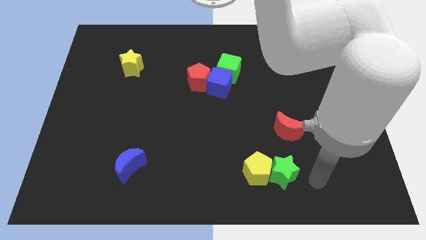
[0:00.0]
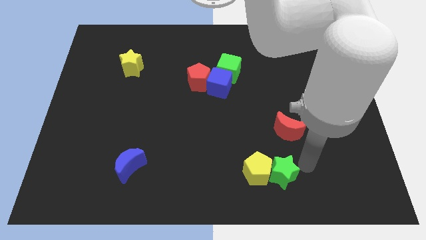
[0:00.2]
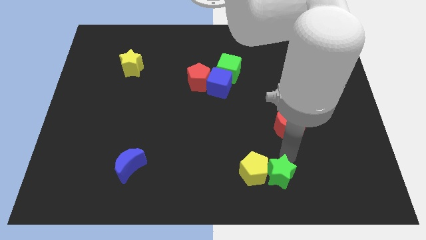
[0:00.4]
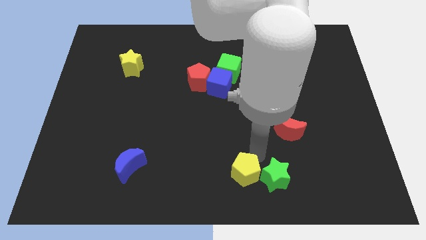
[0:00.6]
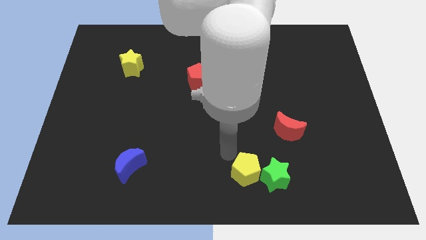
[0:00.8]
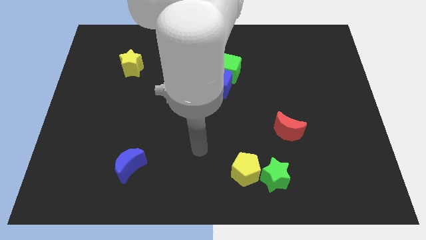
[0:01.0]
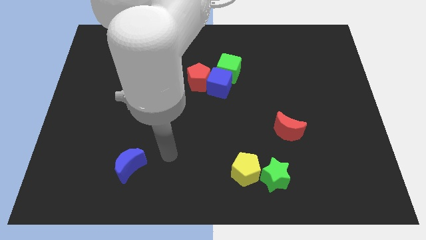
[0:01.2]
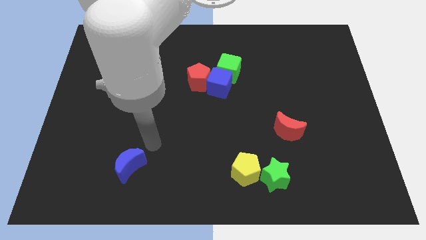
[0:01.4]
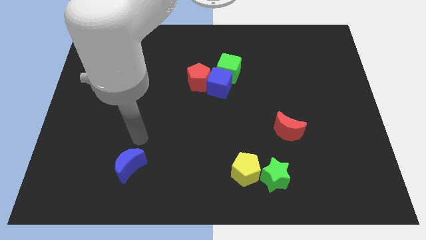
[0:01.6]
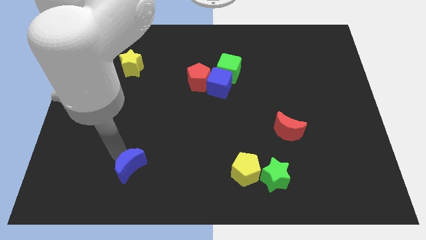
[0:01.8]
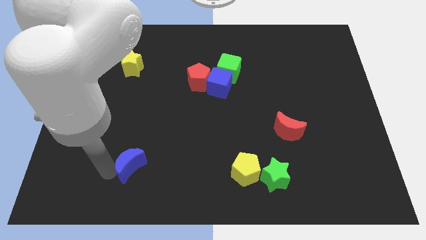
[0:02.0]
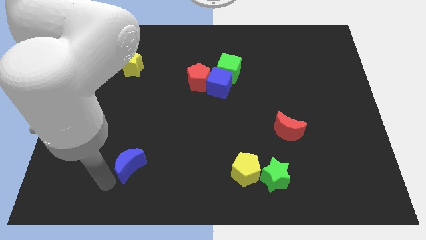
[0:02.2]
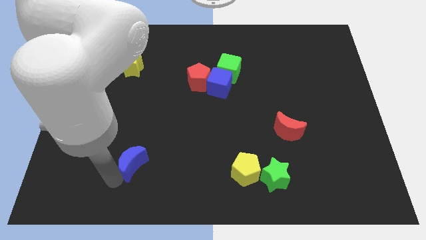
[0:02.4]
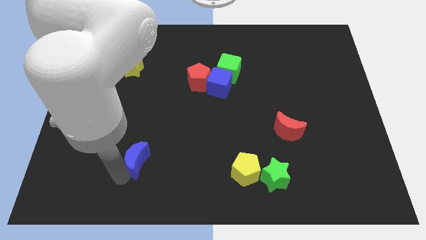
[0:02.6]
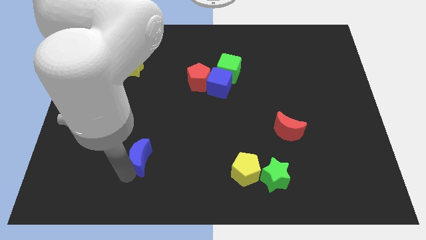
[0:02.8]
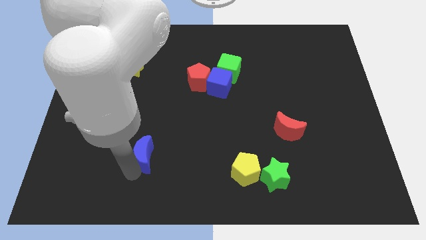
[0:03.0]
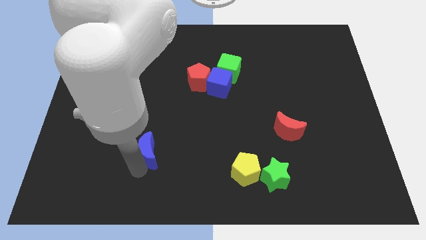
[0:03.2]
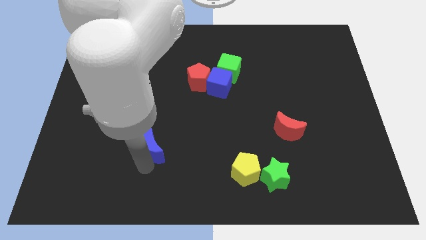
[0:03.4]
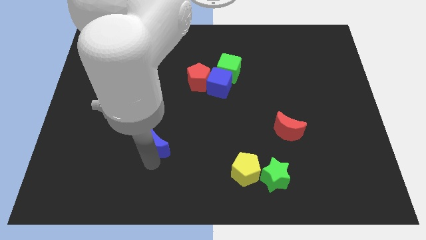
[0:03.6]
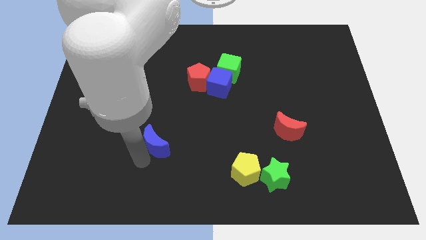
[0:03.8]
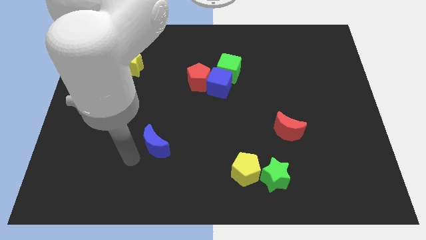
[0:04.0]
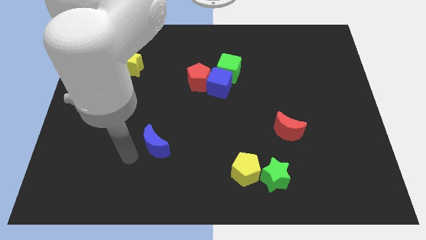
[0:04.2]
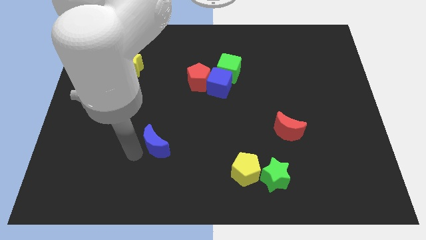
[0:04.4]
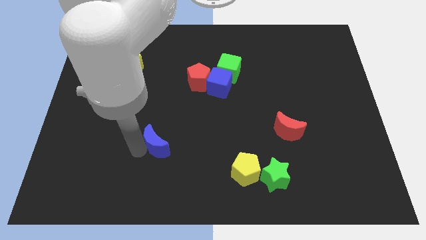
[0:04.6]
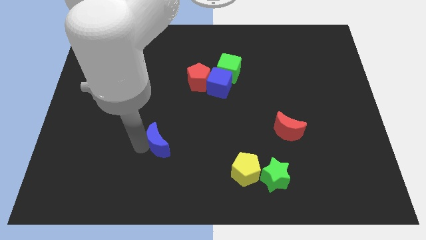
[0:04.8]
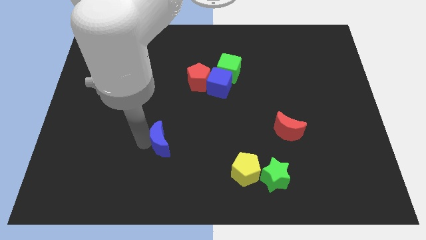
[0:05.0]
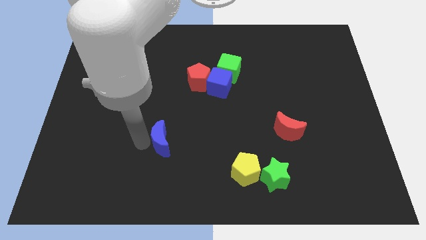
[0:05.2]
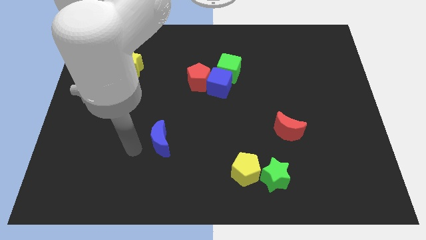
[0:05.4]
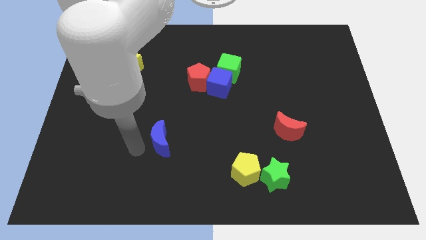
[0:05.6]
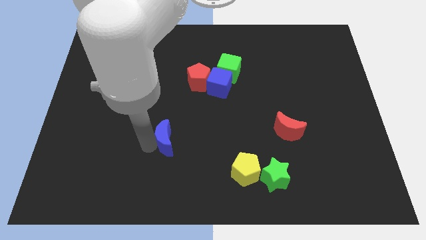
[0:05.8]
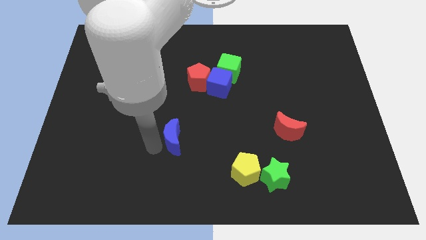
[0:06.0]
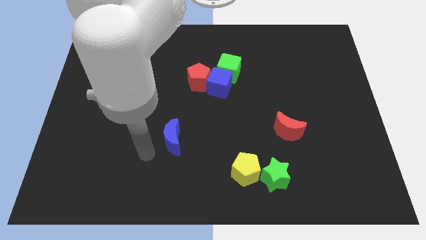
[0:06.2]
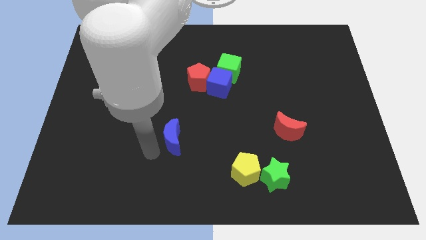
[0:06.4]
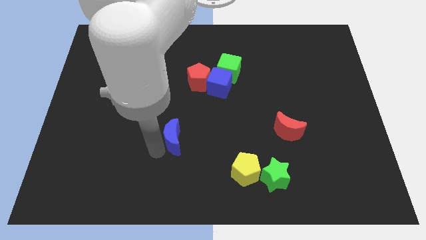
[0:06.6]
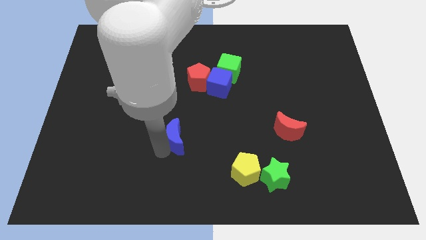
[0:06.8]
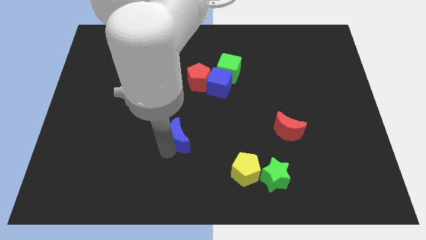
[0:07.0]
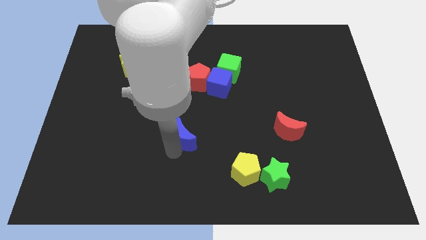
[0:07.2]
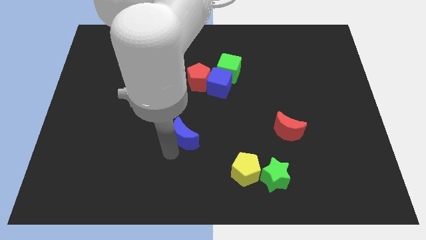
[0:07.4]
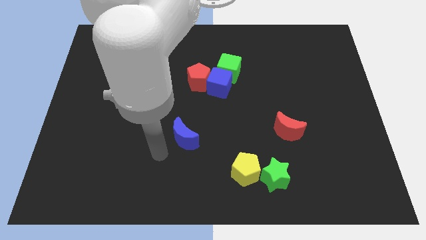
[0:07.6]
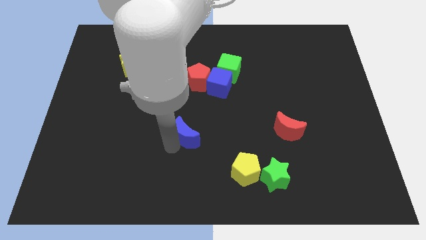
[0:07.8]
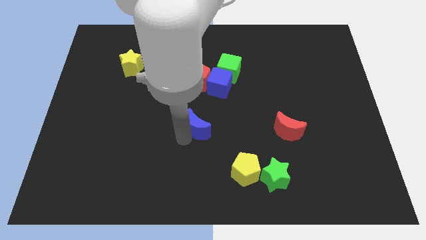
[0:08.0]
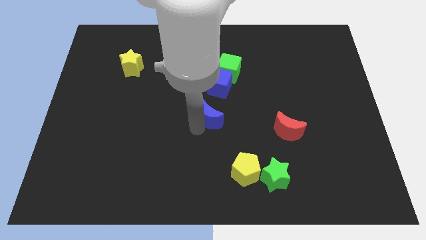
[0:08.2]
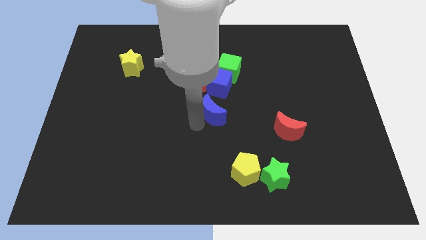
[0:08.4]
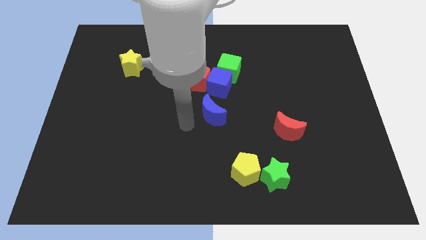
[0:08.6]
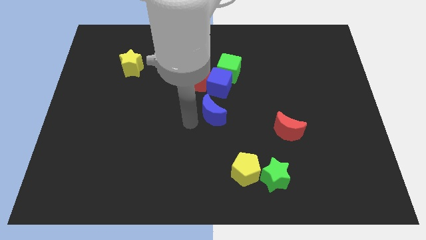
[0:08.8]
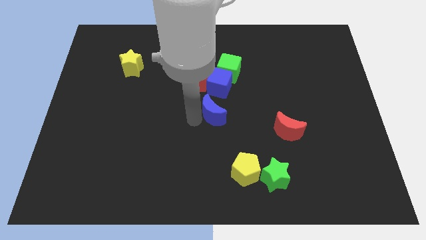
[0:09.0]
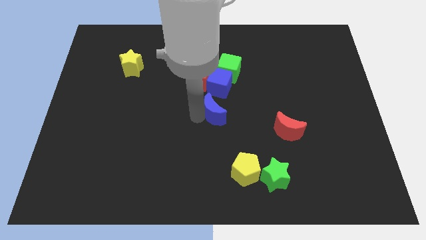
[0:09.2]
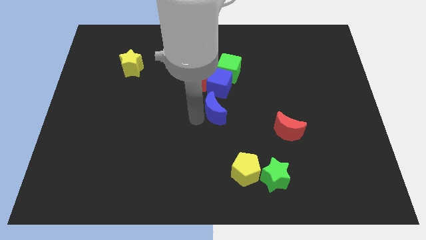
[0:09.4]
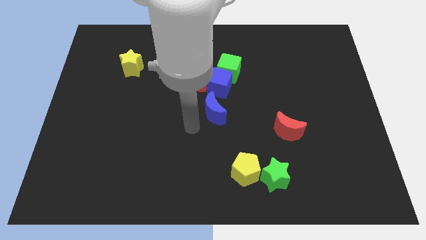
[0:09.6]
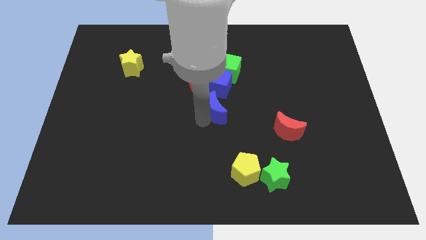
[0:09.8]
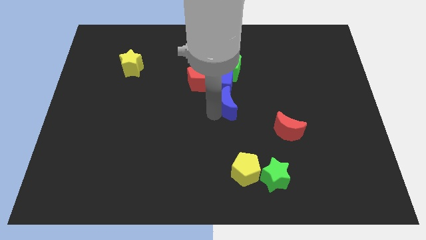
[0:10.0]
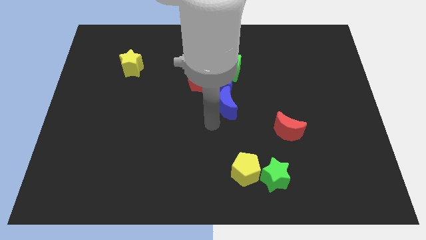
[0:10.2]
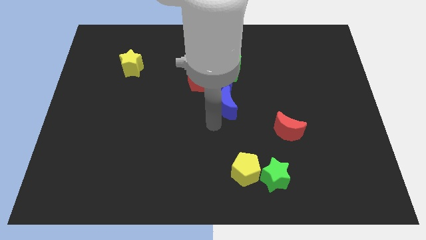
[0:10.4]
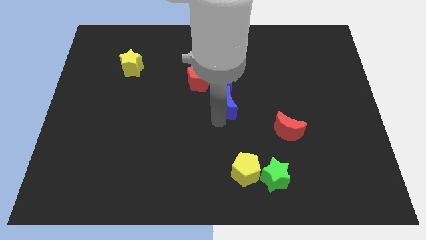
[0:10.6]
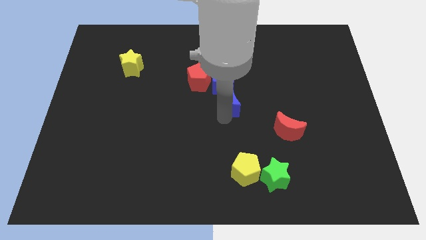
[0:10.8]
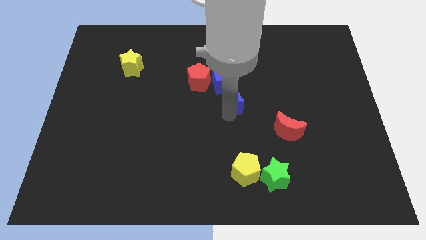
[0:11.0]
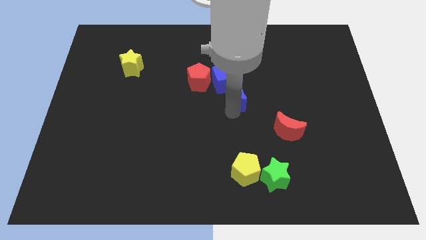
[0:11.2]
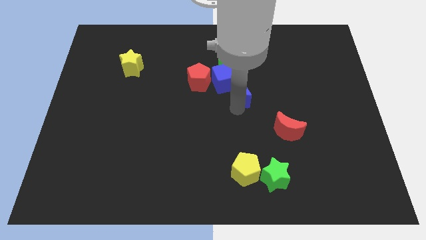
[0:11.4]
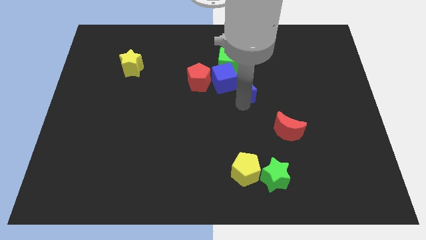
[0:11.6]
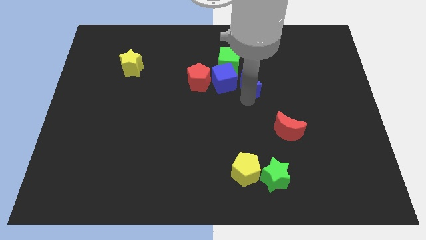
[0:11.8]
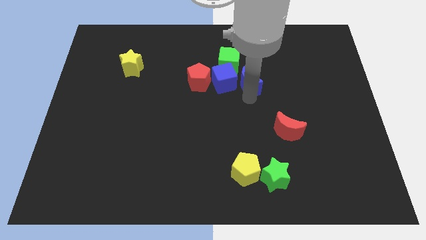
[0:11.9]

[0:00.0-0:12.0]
slide the blue moon diagonally up and to the right of the blue cube

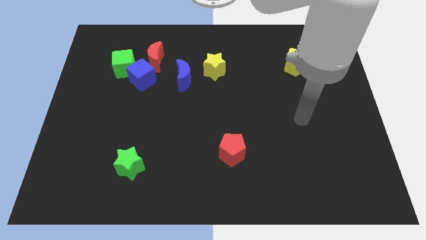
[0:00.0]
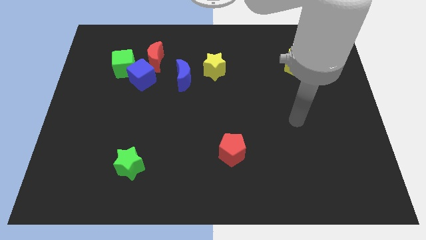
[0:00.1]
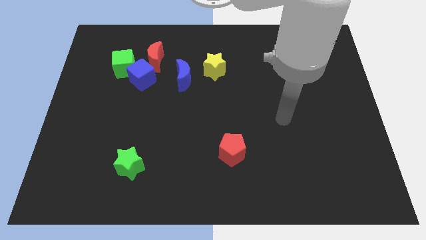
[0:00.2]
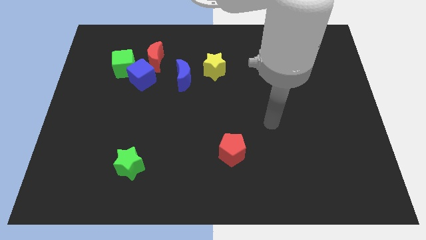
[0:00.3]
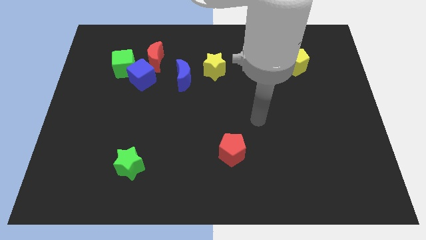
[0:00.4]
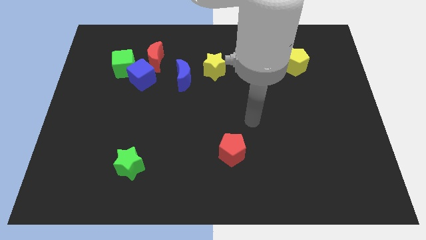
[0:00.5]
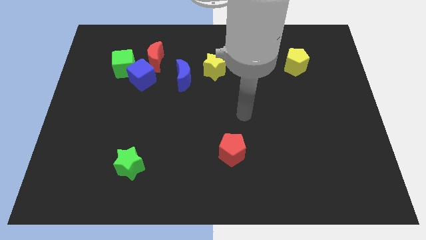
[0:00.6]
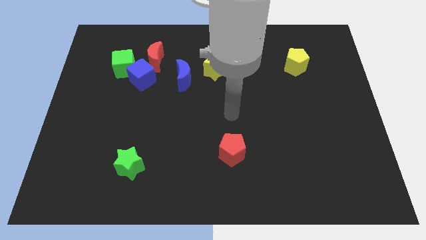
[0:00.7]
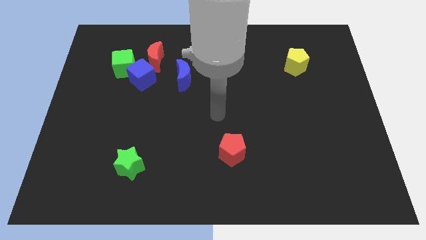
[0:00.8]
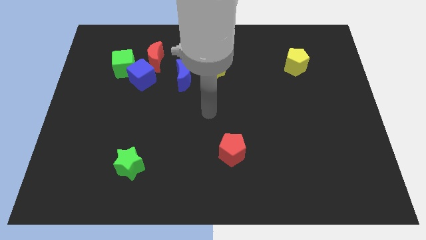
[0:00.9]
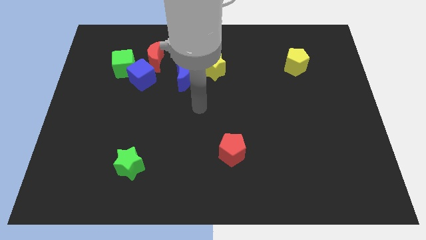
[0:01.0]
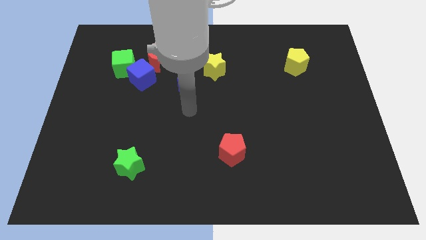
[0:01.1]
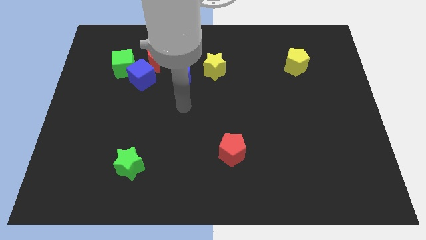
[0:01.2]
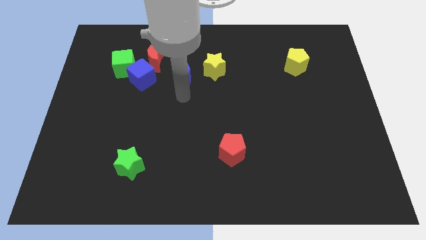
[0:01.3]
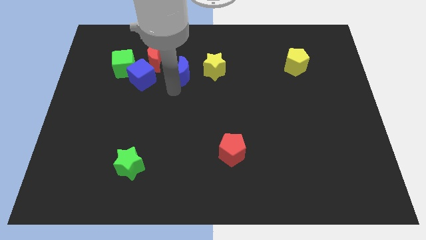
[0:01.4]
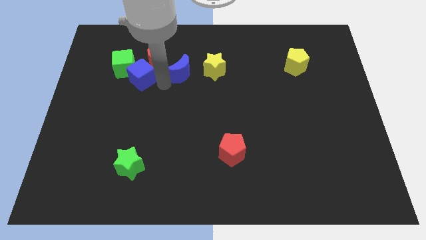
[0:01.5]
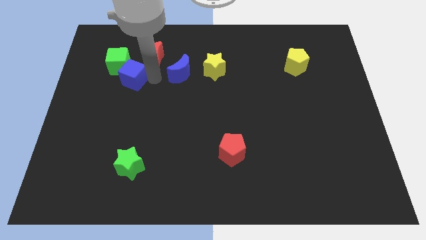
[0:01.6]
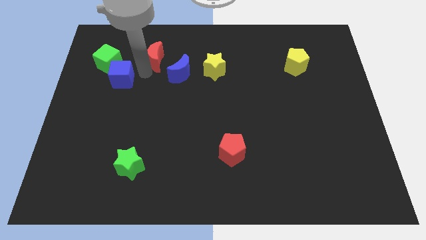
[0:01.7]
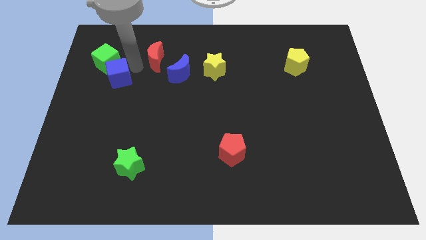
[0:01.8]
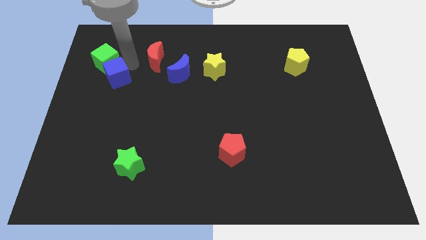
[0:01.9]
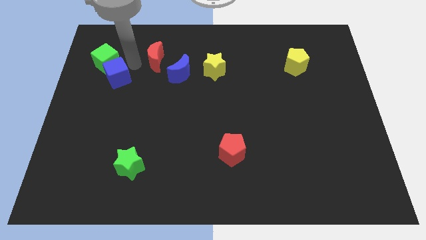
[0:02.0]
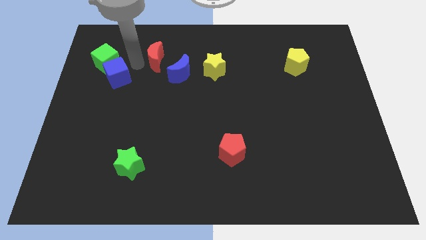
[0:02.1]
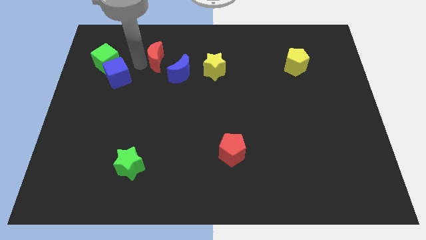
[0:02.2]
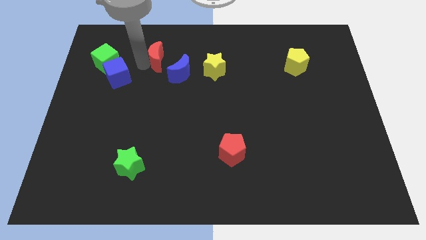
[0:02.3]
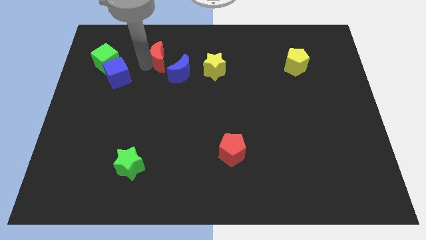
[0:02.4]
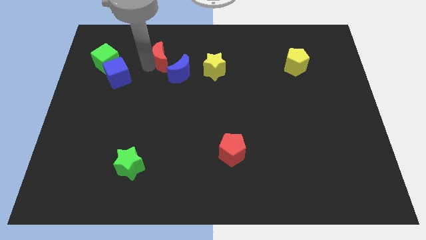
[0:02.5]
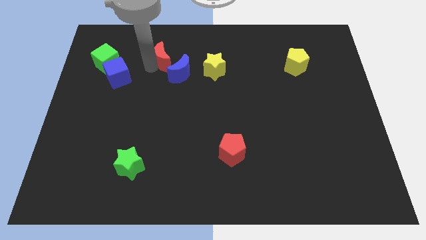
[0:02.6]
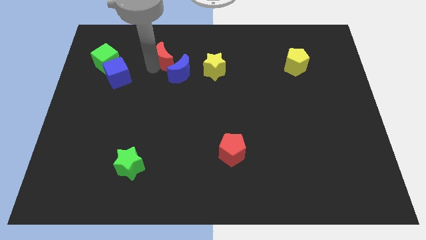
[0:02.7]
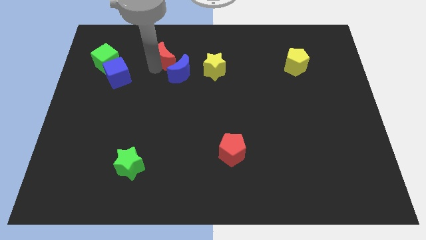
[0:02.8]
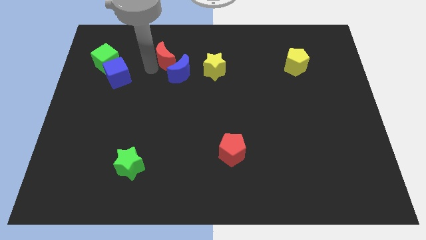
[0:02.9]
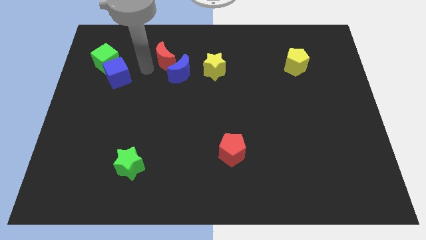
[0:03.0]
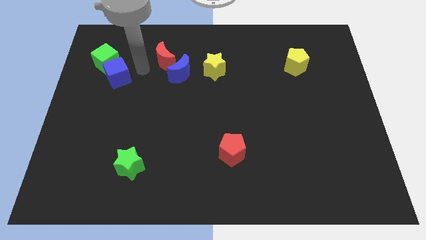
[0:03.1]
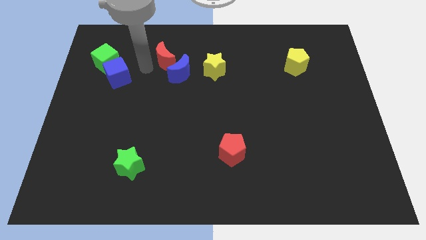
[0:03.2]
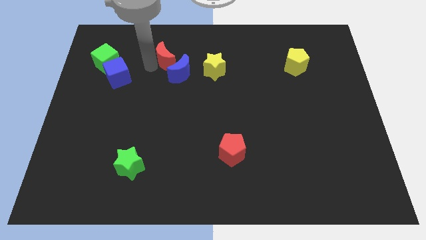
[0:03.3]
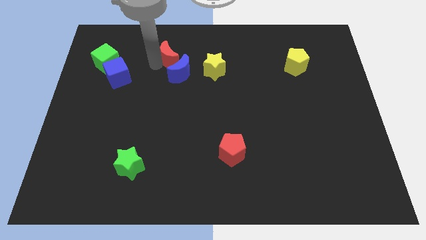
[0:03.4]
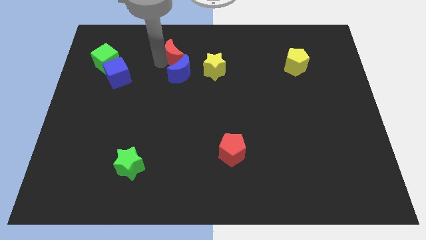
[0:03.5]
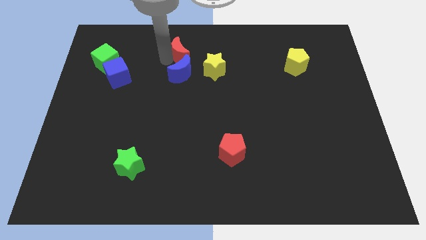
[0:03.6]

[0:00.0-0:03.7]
push the red moon to the top left side of the yellow star
